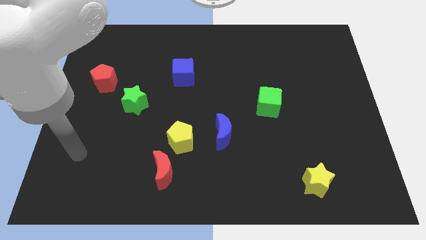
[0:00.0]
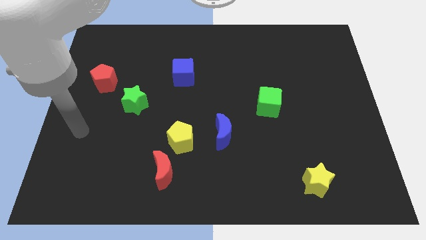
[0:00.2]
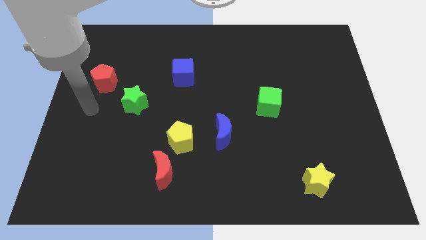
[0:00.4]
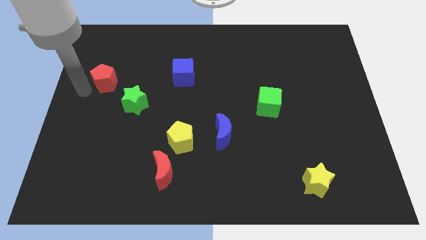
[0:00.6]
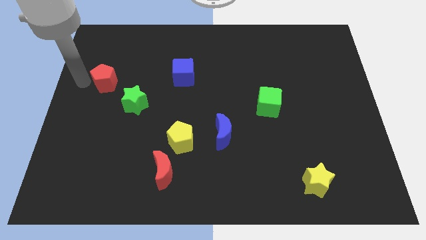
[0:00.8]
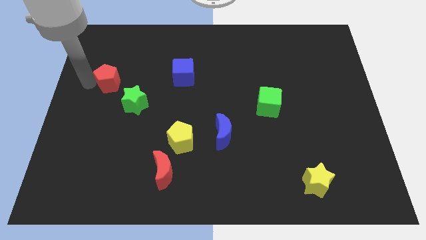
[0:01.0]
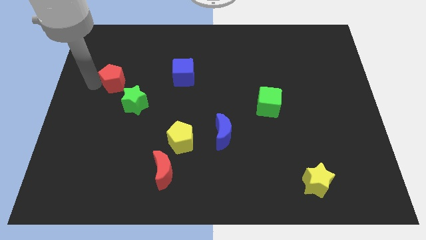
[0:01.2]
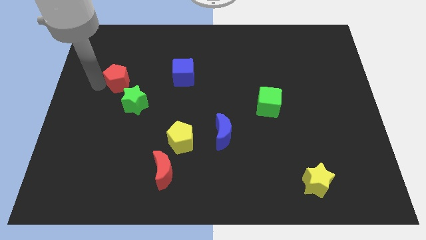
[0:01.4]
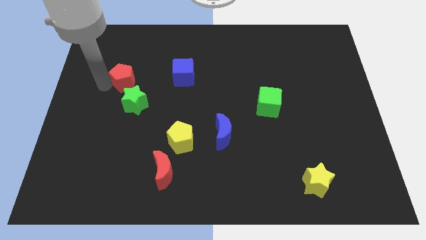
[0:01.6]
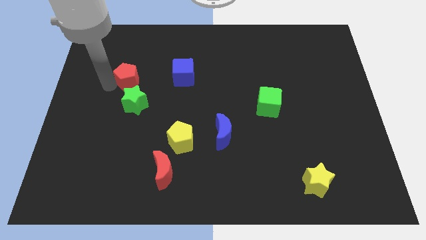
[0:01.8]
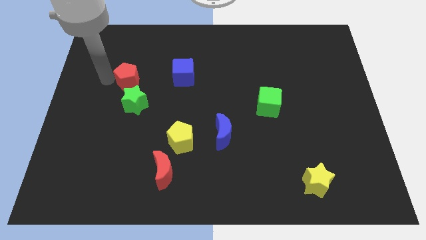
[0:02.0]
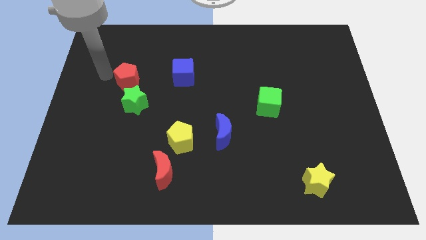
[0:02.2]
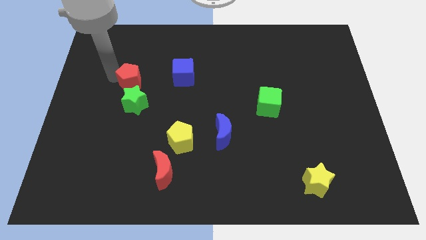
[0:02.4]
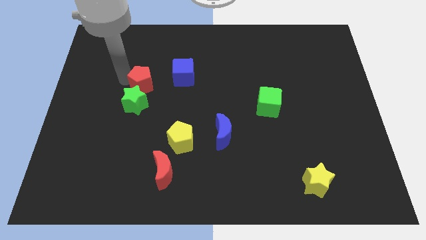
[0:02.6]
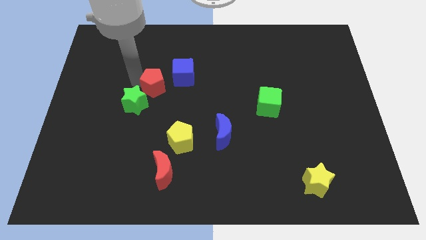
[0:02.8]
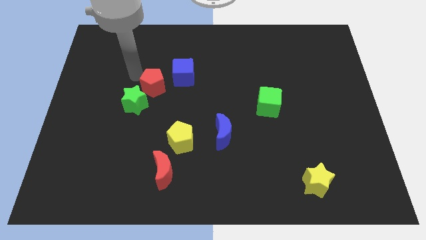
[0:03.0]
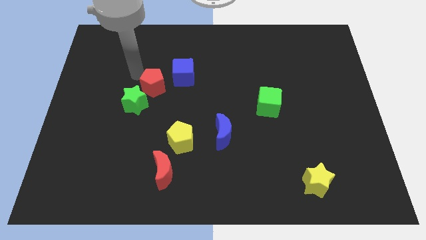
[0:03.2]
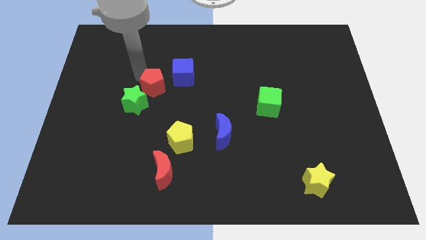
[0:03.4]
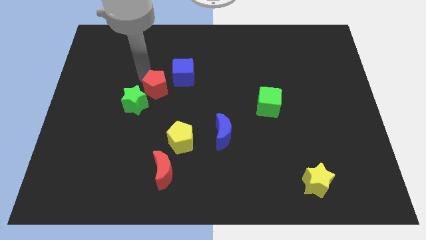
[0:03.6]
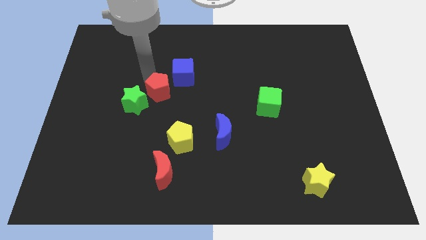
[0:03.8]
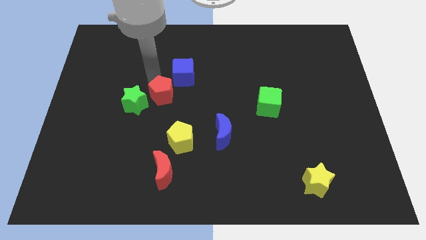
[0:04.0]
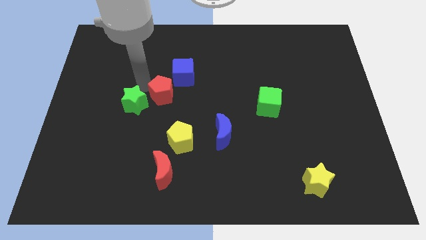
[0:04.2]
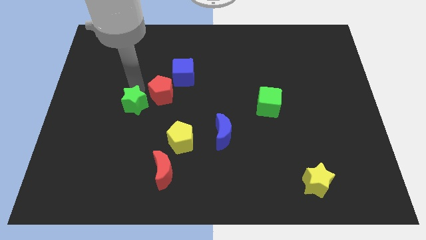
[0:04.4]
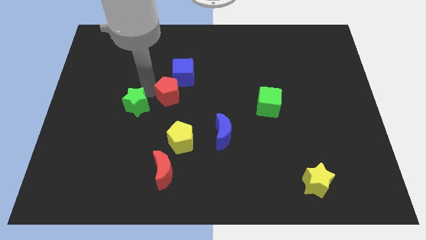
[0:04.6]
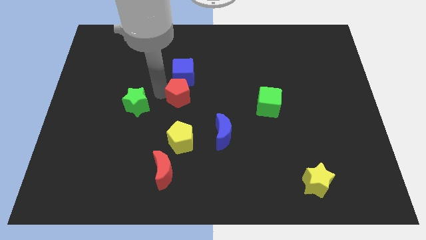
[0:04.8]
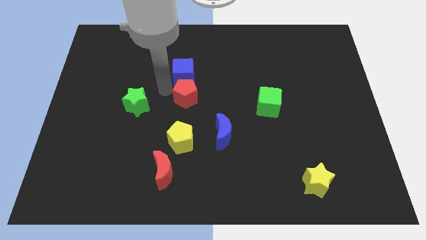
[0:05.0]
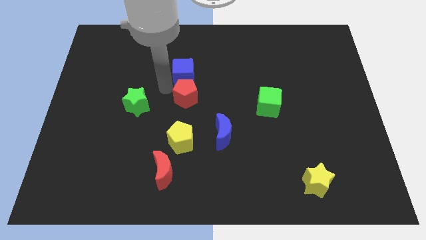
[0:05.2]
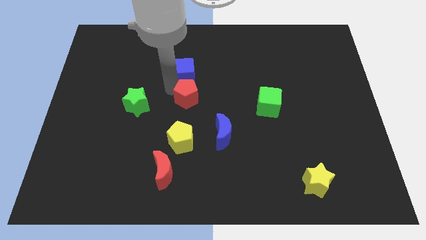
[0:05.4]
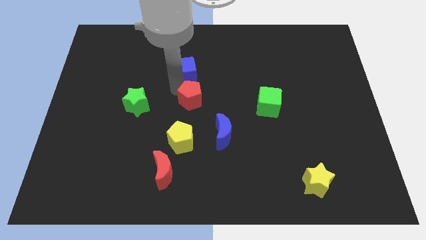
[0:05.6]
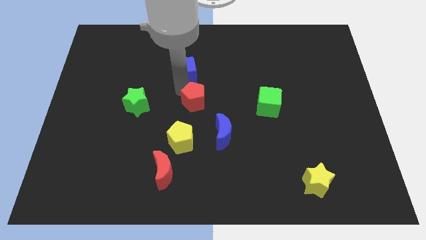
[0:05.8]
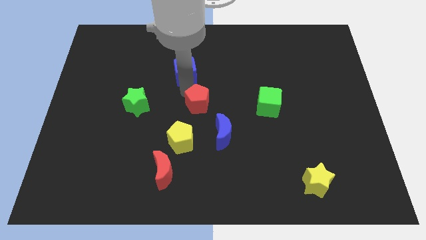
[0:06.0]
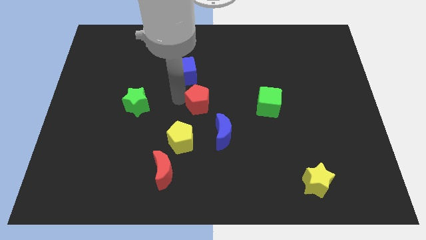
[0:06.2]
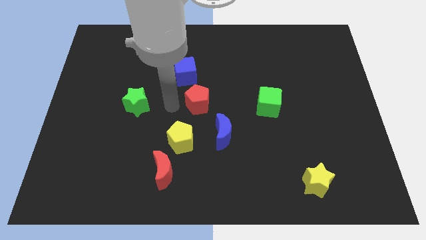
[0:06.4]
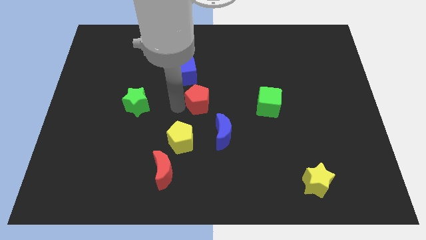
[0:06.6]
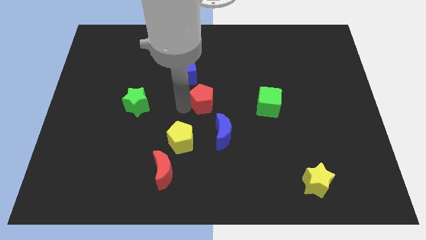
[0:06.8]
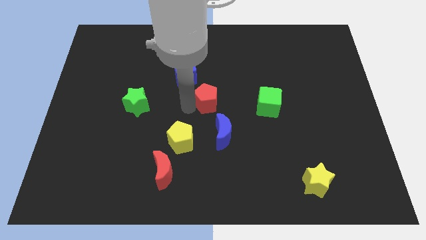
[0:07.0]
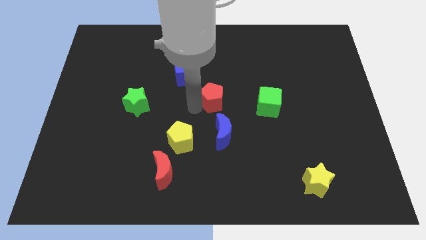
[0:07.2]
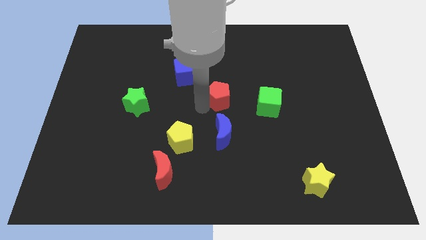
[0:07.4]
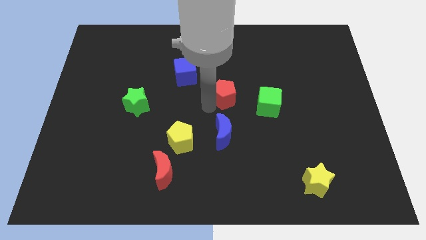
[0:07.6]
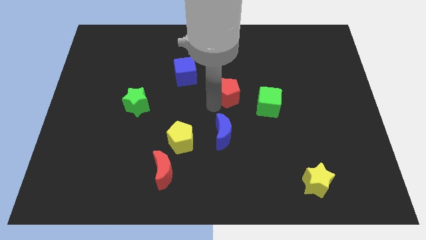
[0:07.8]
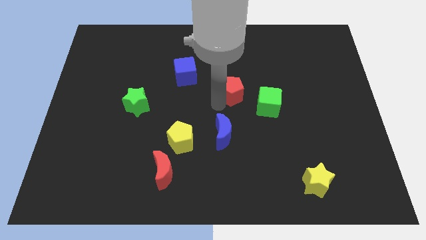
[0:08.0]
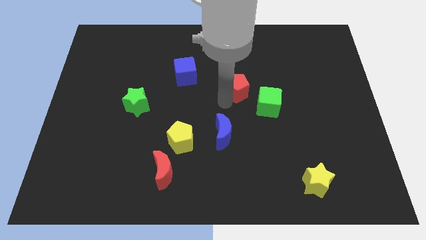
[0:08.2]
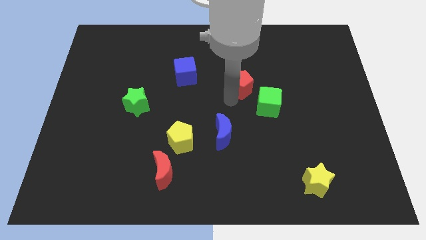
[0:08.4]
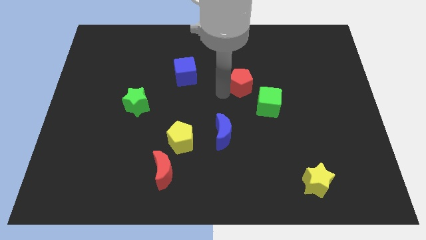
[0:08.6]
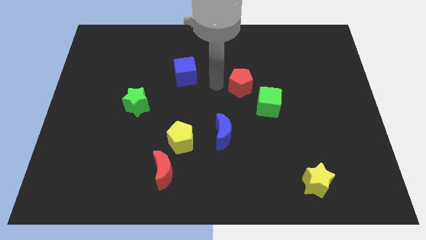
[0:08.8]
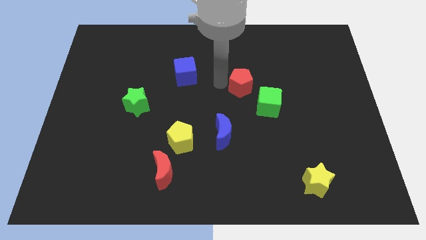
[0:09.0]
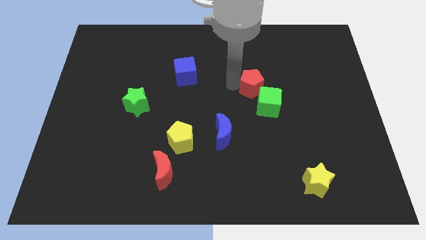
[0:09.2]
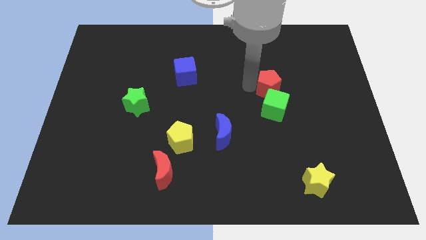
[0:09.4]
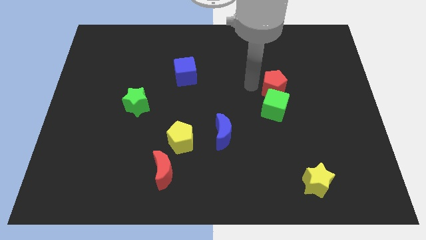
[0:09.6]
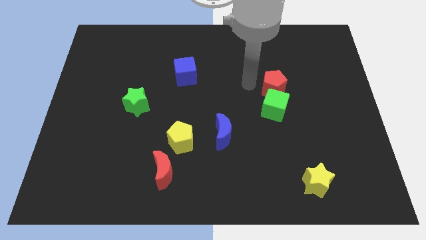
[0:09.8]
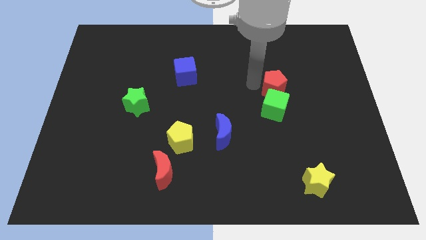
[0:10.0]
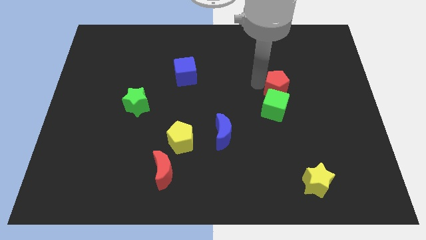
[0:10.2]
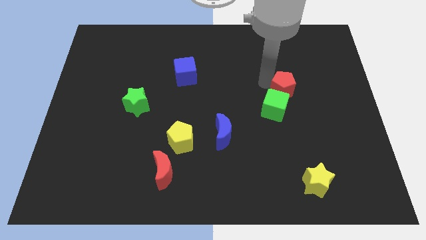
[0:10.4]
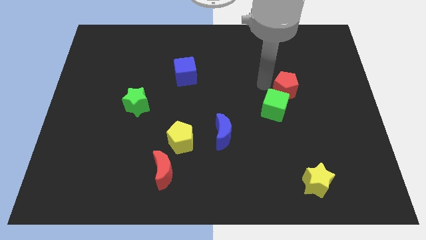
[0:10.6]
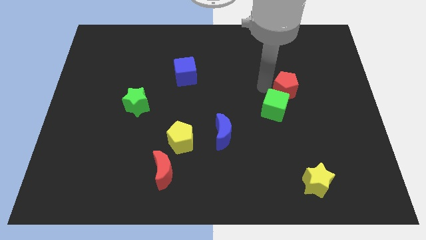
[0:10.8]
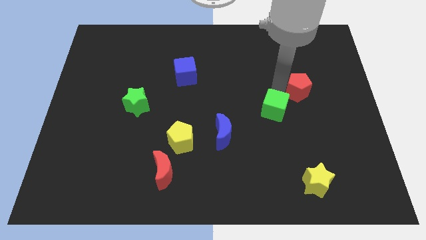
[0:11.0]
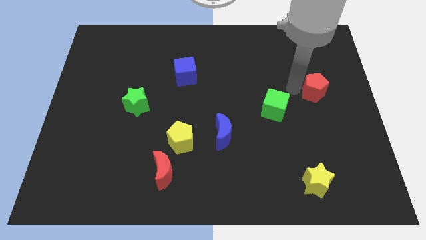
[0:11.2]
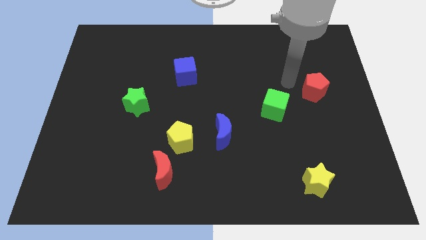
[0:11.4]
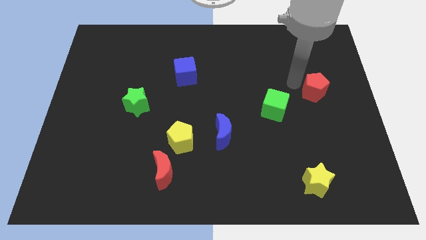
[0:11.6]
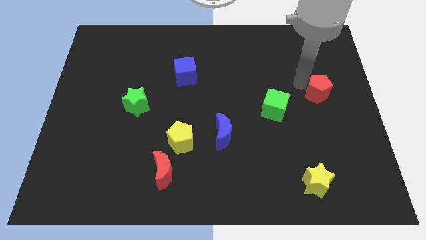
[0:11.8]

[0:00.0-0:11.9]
slide the red pentagon to the right side of the board

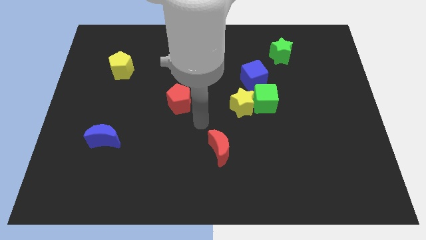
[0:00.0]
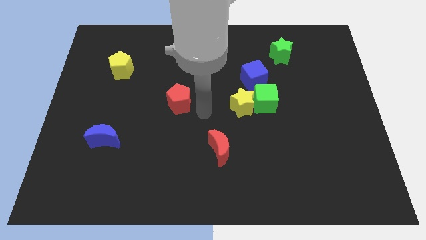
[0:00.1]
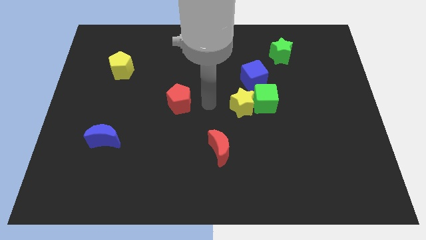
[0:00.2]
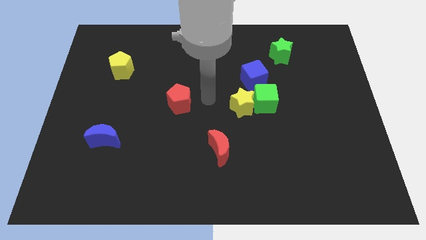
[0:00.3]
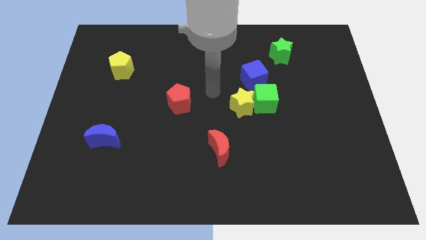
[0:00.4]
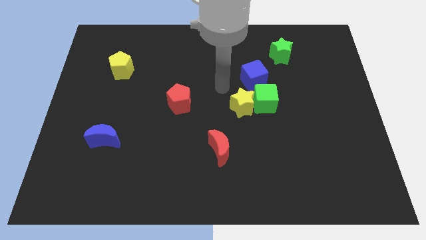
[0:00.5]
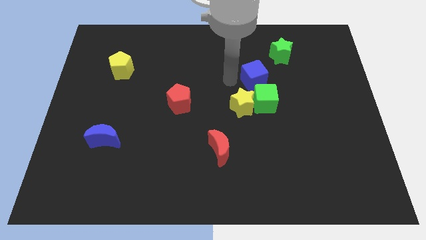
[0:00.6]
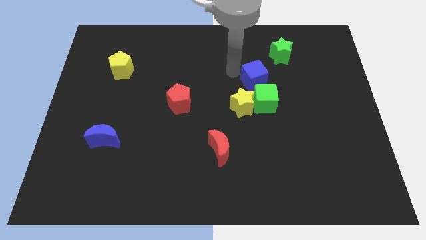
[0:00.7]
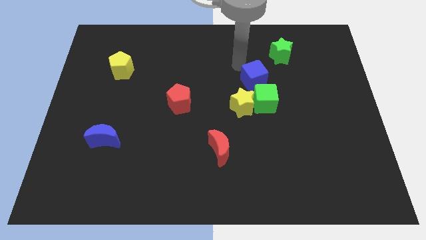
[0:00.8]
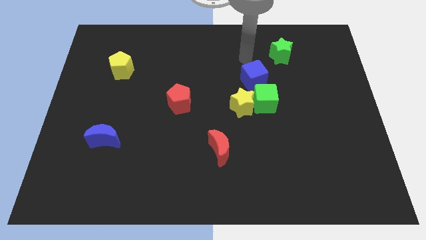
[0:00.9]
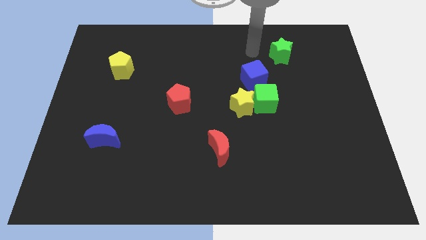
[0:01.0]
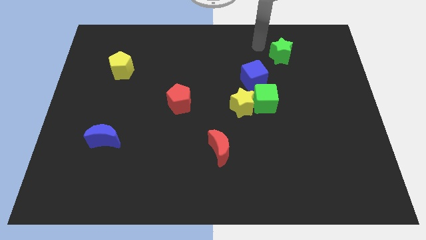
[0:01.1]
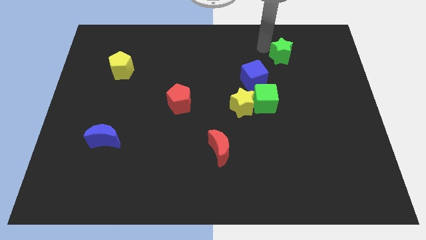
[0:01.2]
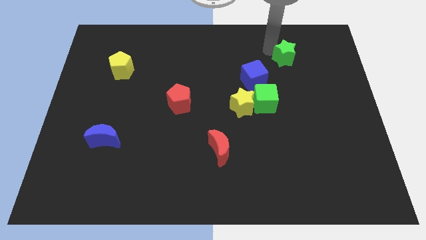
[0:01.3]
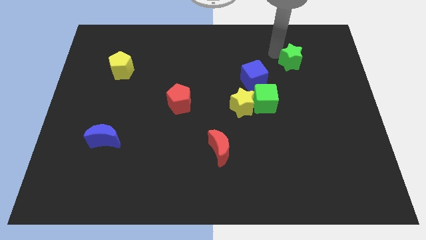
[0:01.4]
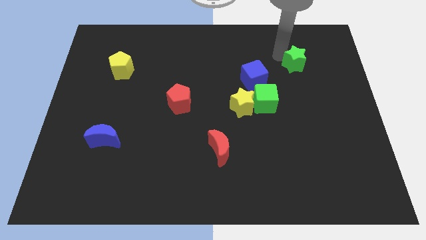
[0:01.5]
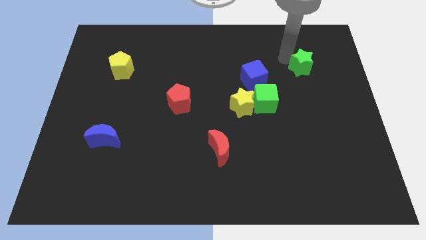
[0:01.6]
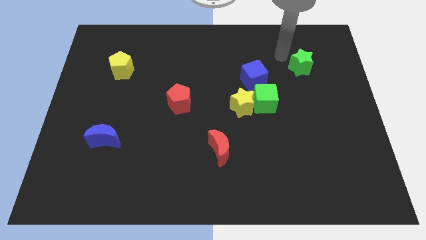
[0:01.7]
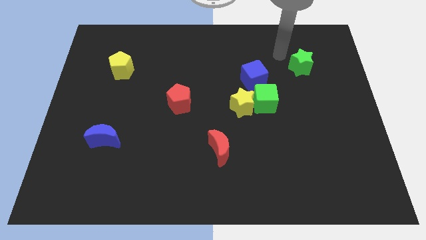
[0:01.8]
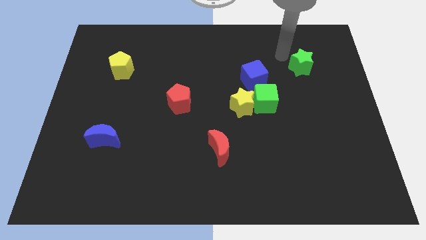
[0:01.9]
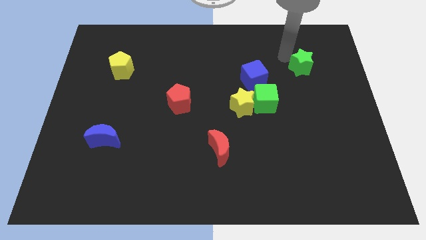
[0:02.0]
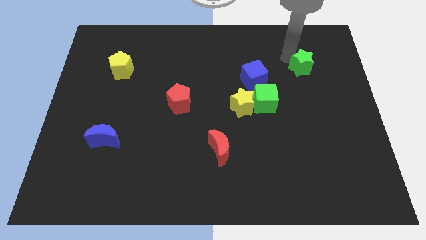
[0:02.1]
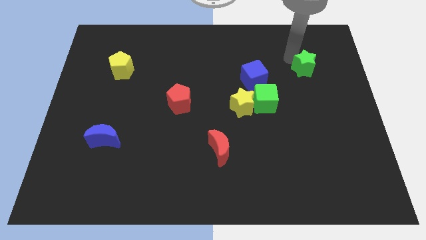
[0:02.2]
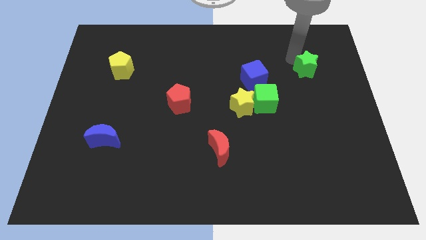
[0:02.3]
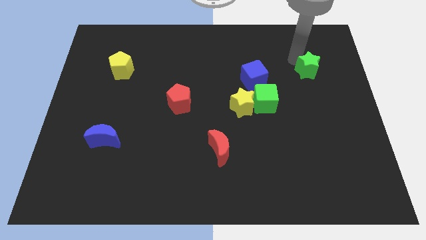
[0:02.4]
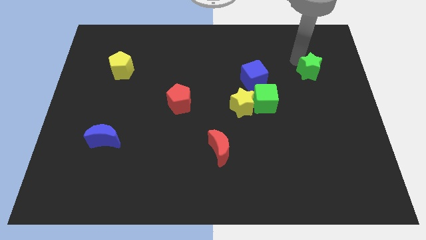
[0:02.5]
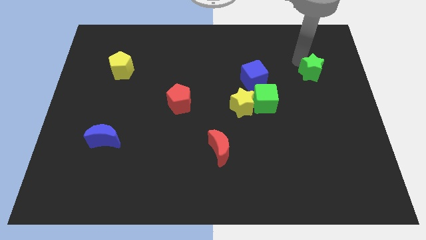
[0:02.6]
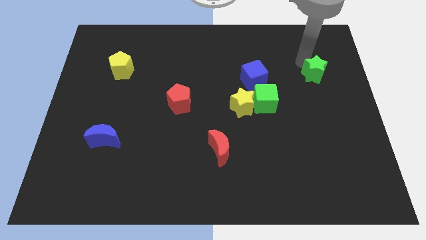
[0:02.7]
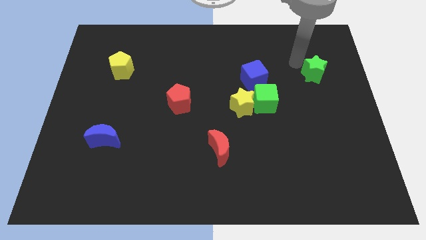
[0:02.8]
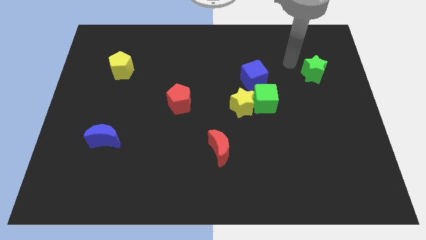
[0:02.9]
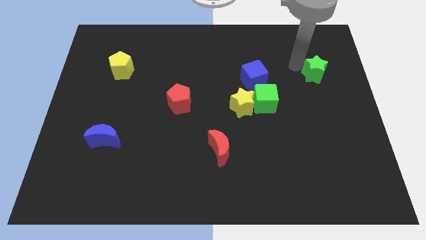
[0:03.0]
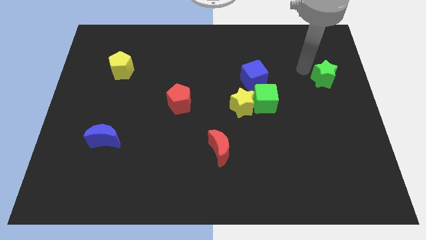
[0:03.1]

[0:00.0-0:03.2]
push the green star to the right side
